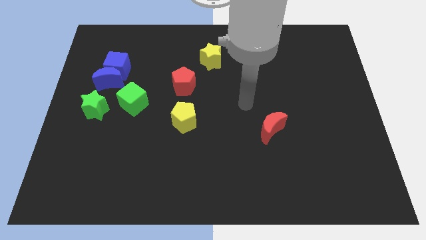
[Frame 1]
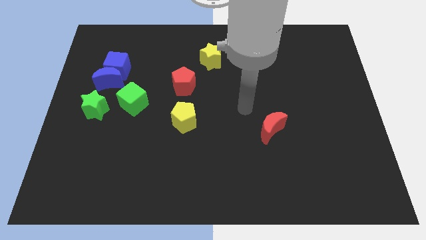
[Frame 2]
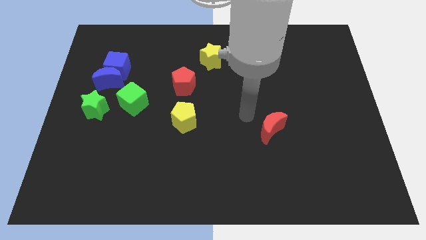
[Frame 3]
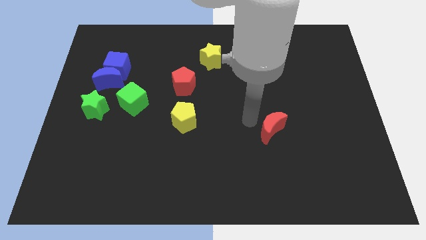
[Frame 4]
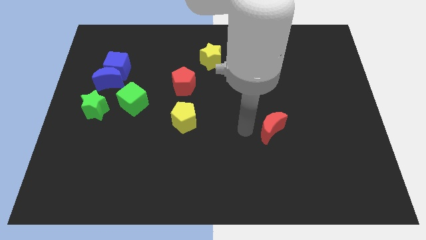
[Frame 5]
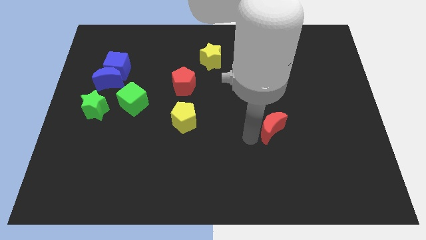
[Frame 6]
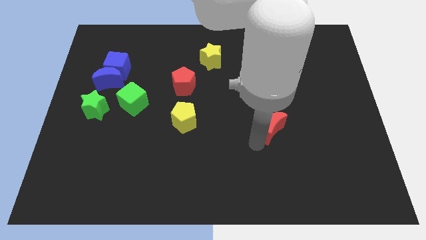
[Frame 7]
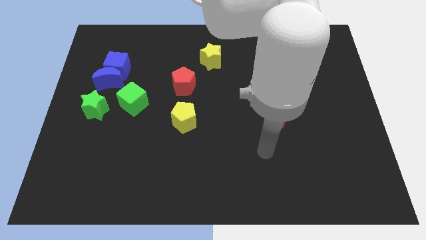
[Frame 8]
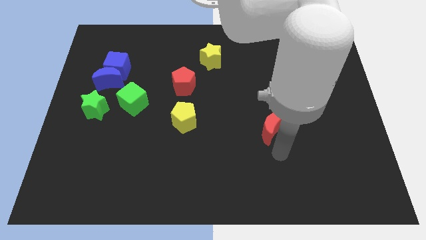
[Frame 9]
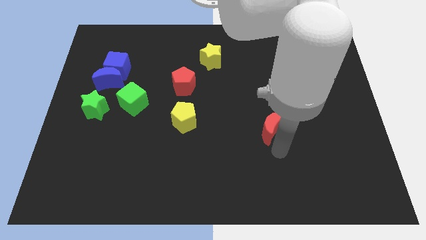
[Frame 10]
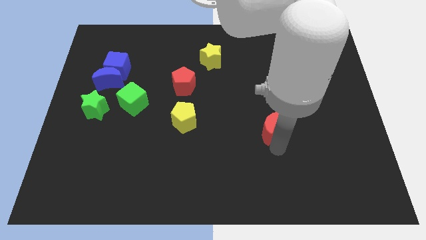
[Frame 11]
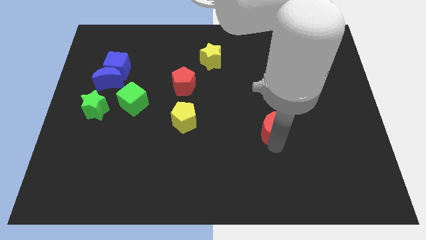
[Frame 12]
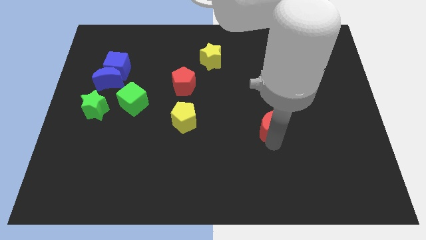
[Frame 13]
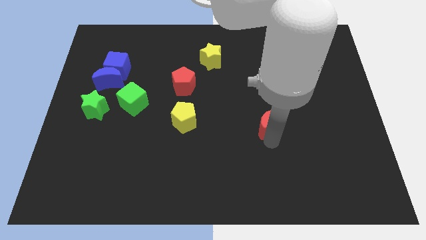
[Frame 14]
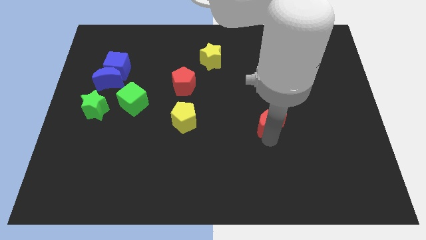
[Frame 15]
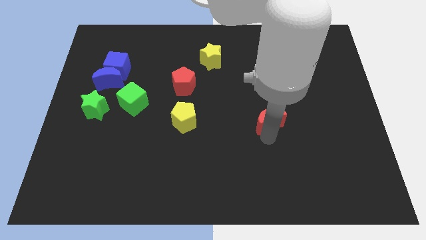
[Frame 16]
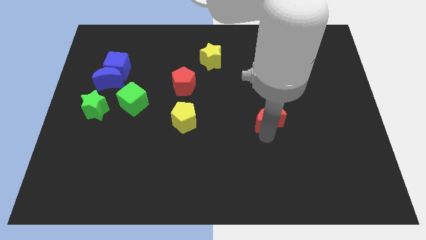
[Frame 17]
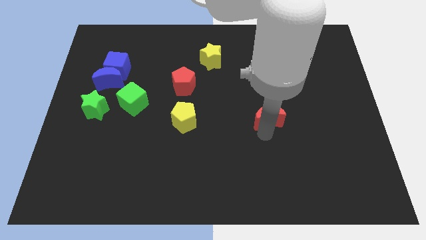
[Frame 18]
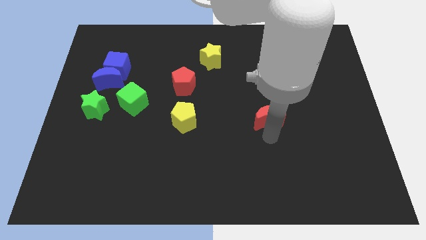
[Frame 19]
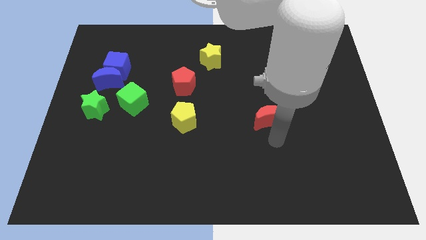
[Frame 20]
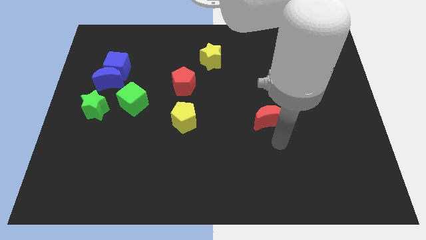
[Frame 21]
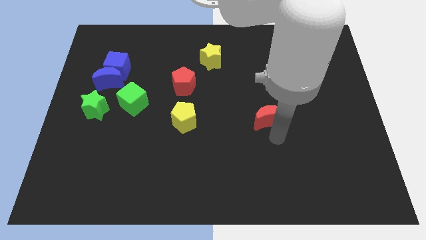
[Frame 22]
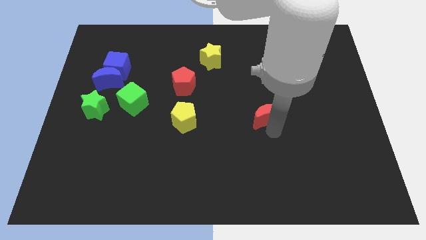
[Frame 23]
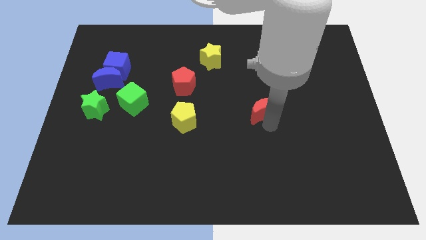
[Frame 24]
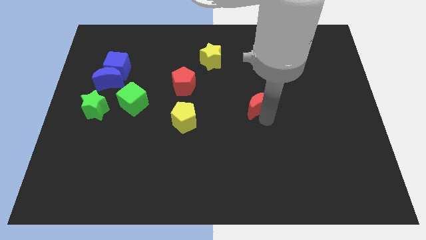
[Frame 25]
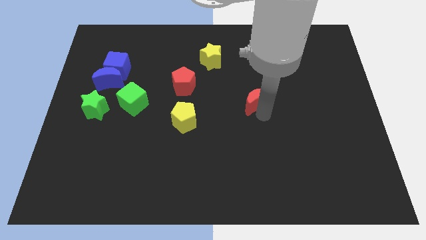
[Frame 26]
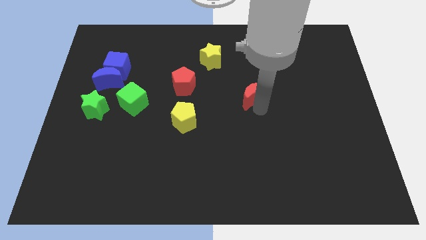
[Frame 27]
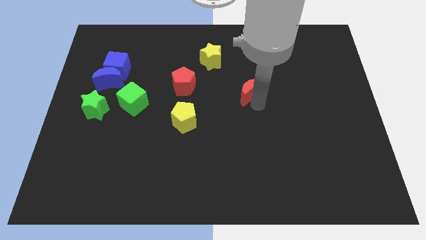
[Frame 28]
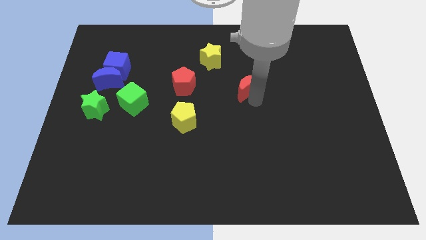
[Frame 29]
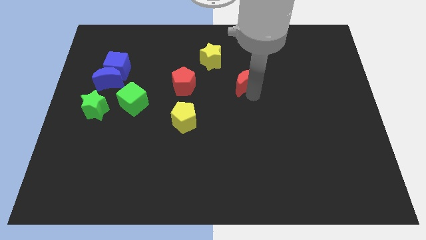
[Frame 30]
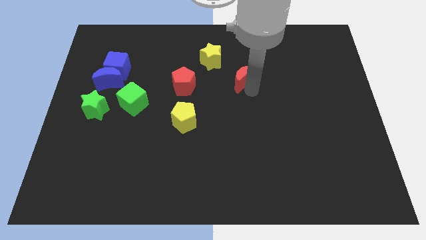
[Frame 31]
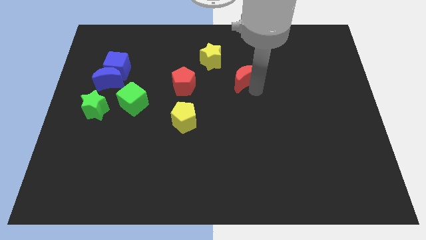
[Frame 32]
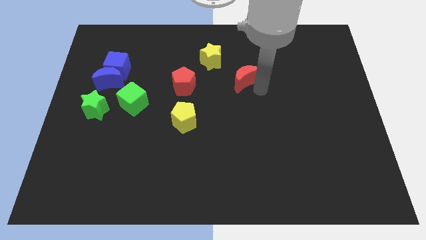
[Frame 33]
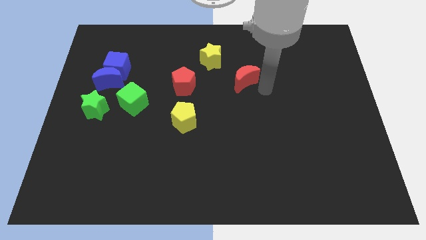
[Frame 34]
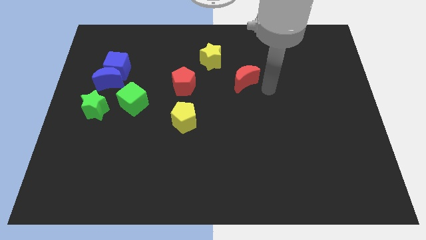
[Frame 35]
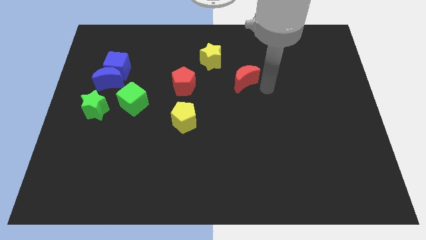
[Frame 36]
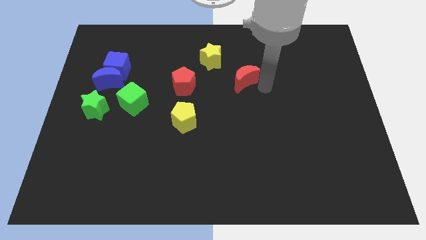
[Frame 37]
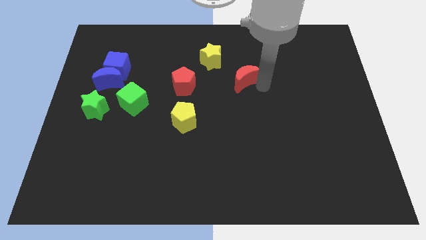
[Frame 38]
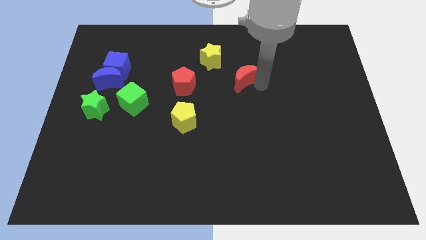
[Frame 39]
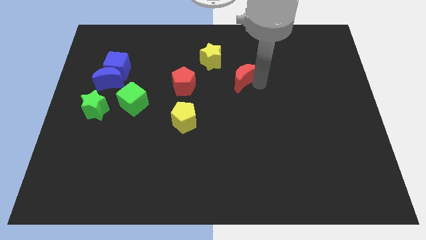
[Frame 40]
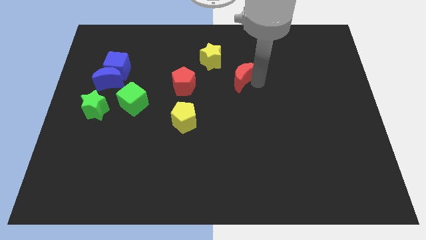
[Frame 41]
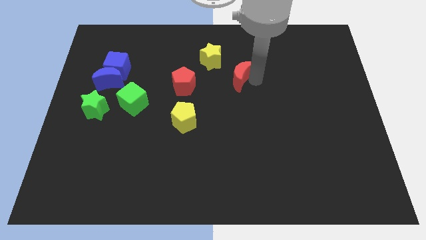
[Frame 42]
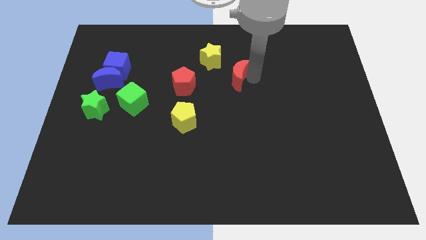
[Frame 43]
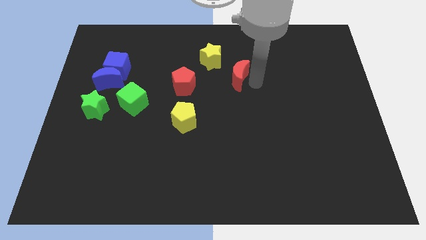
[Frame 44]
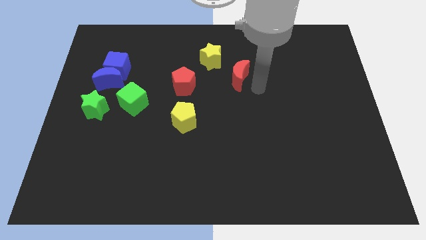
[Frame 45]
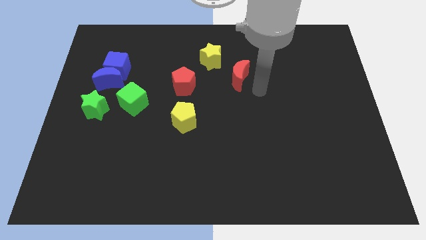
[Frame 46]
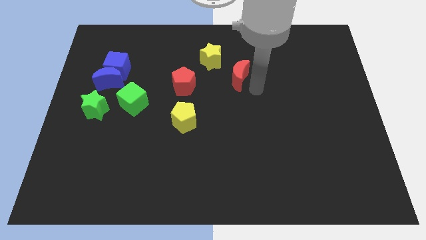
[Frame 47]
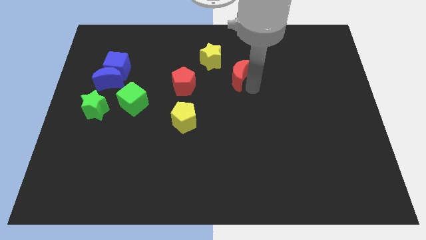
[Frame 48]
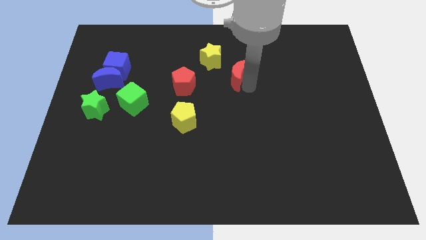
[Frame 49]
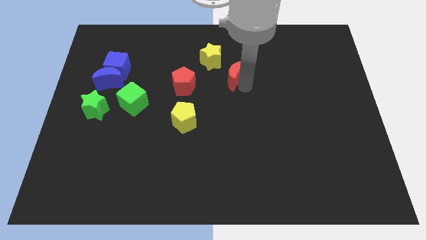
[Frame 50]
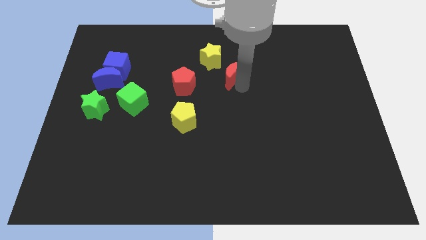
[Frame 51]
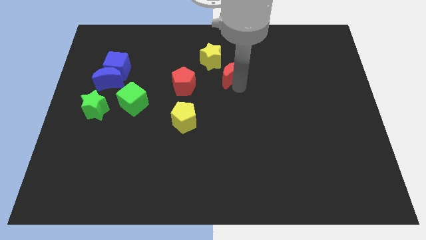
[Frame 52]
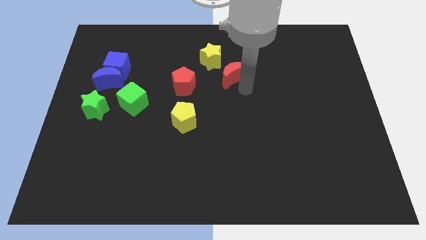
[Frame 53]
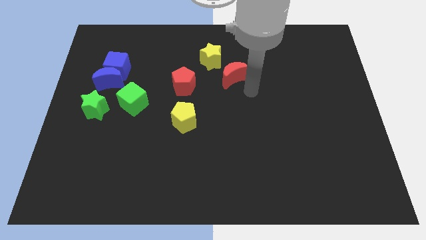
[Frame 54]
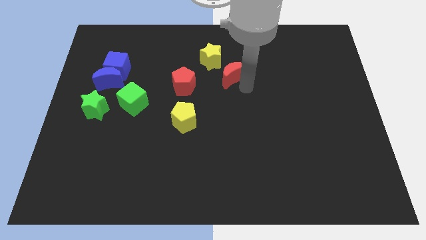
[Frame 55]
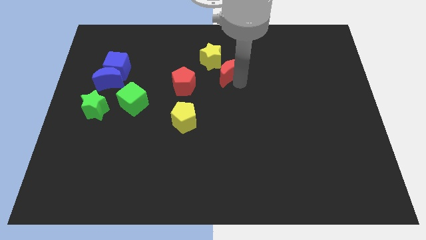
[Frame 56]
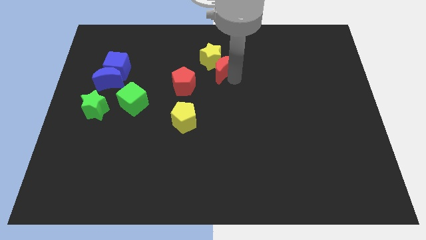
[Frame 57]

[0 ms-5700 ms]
push the red moon close to the yellow star
